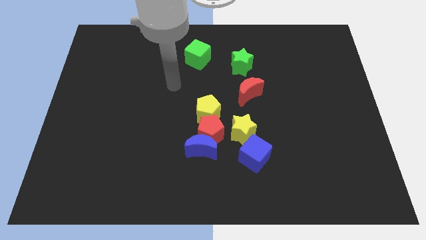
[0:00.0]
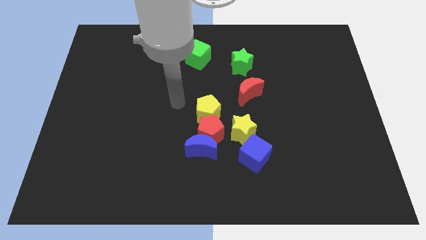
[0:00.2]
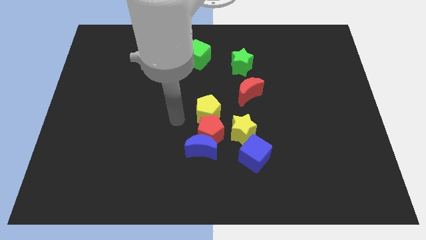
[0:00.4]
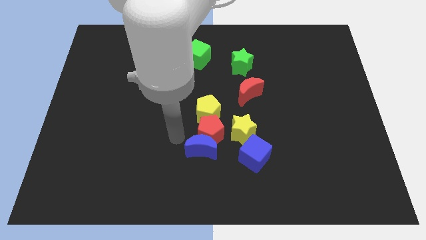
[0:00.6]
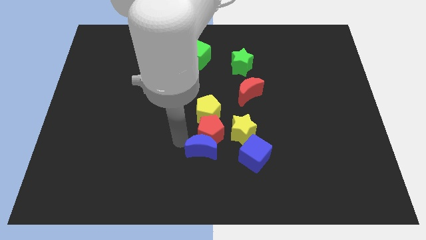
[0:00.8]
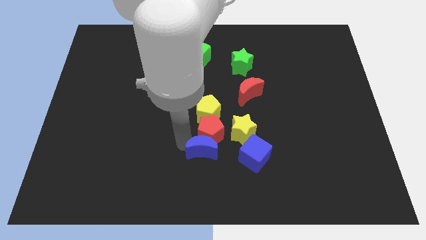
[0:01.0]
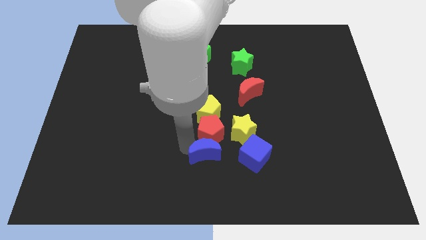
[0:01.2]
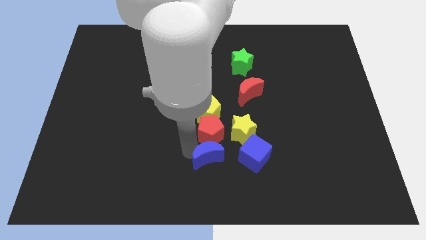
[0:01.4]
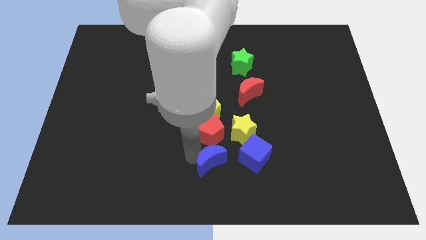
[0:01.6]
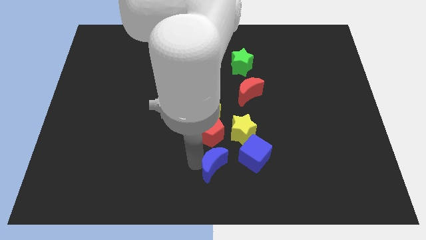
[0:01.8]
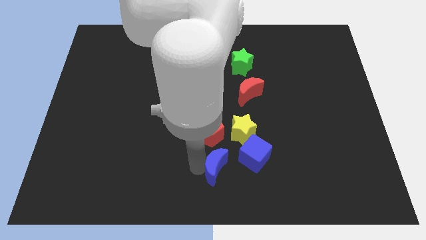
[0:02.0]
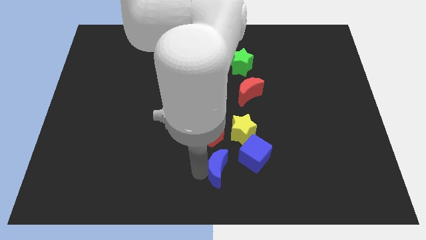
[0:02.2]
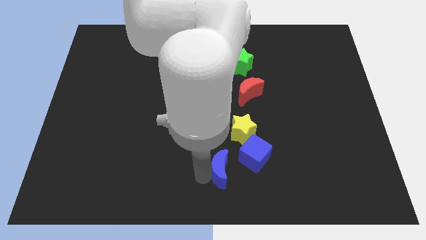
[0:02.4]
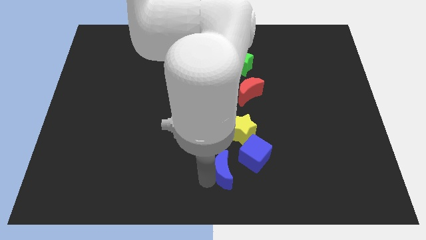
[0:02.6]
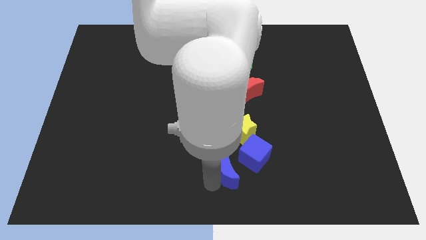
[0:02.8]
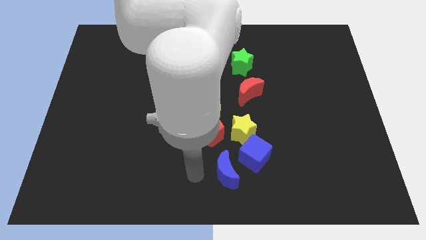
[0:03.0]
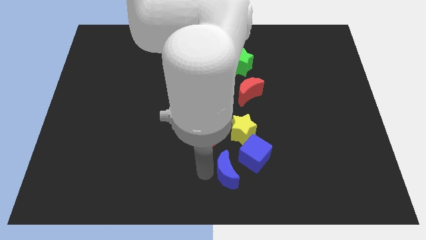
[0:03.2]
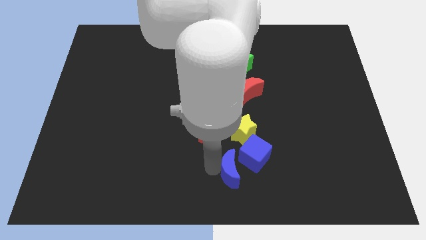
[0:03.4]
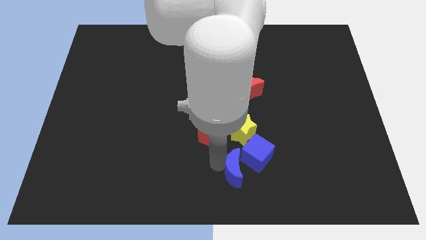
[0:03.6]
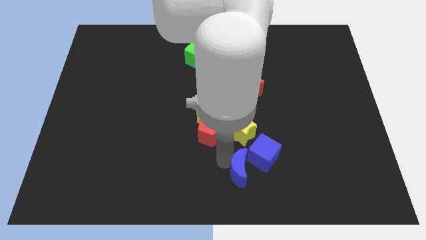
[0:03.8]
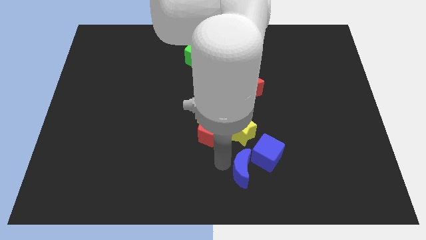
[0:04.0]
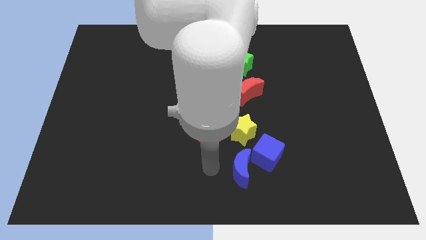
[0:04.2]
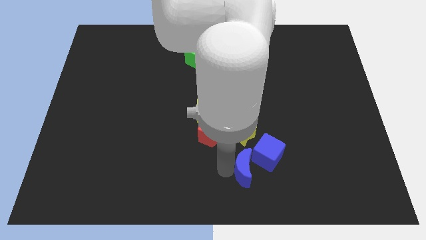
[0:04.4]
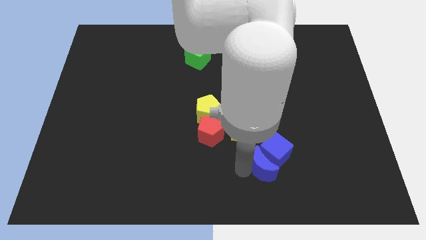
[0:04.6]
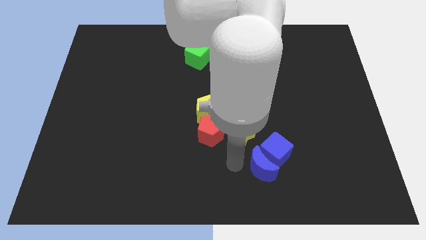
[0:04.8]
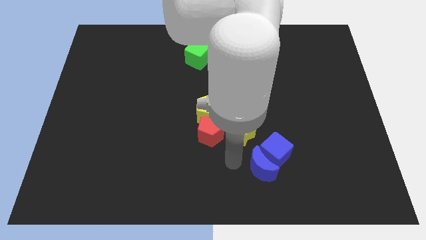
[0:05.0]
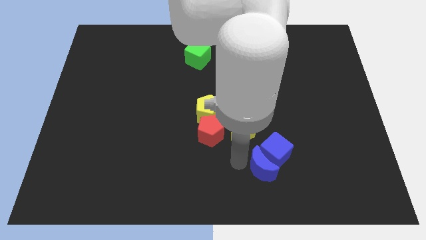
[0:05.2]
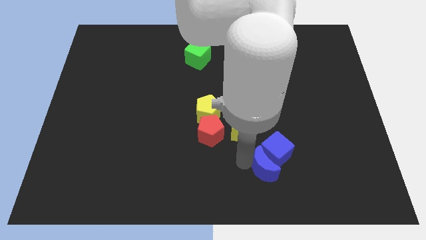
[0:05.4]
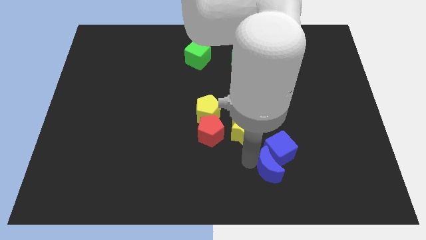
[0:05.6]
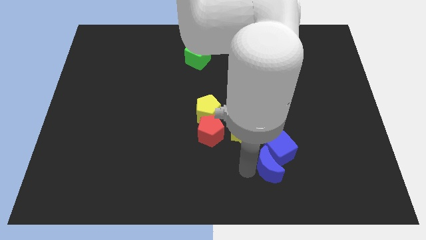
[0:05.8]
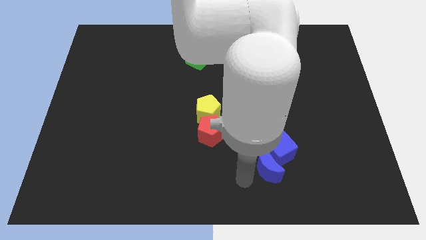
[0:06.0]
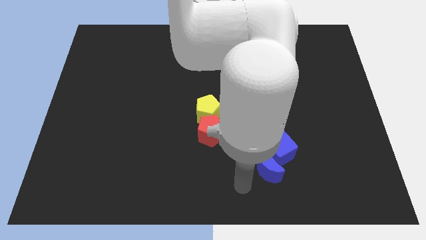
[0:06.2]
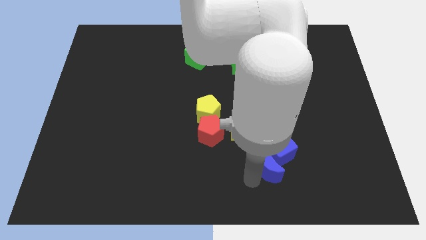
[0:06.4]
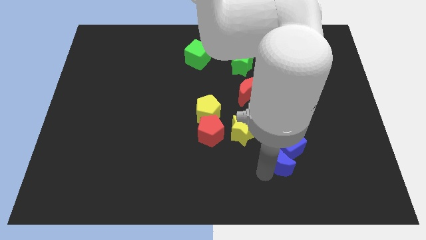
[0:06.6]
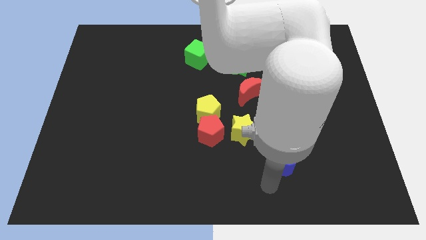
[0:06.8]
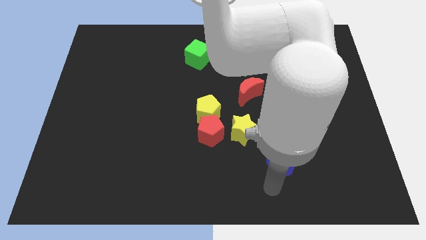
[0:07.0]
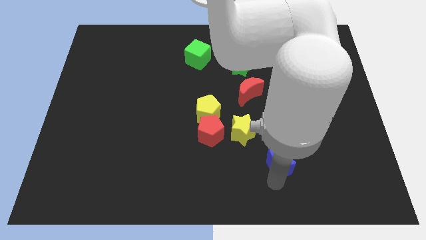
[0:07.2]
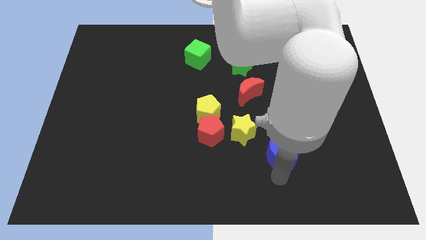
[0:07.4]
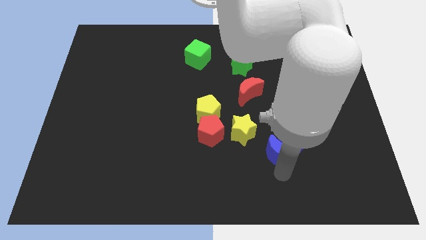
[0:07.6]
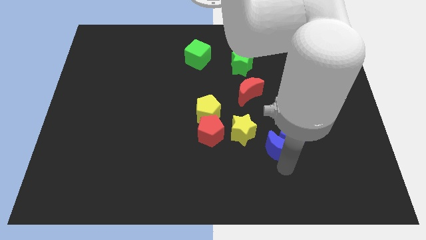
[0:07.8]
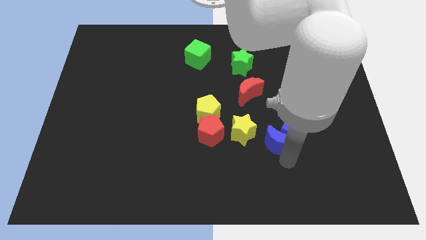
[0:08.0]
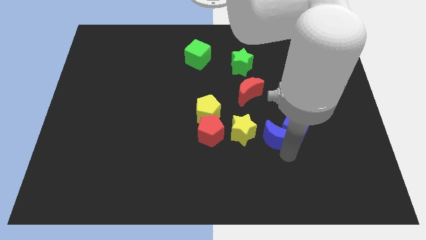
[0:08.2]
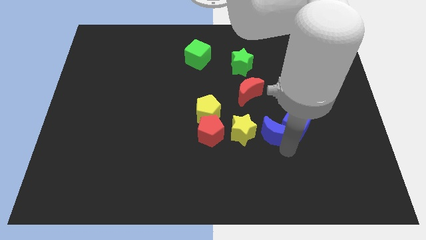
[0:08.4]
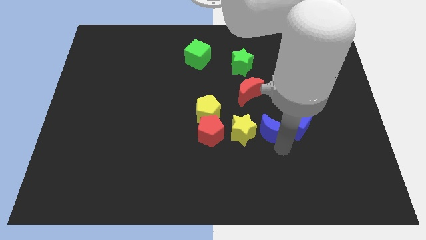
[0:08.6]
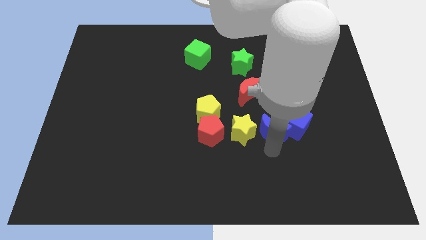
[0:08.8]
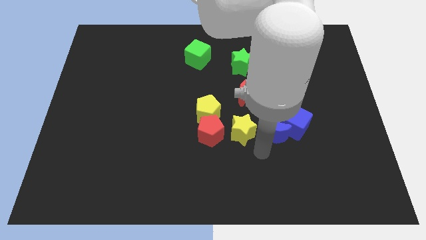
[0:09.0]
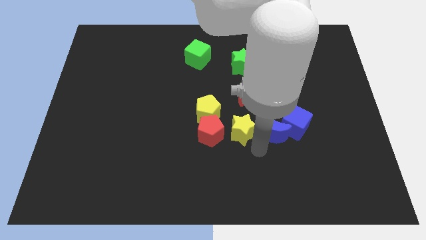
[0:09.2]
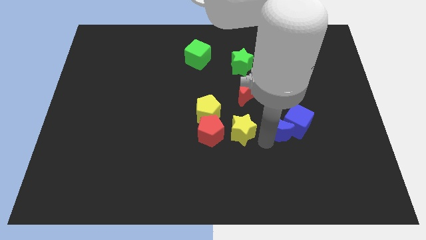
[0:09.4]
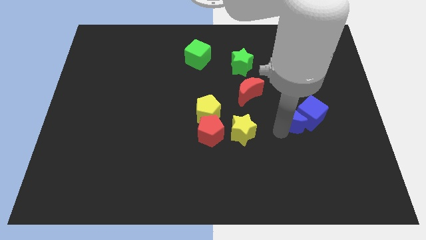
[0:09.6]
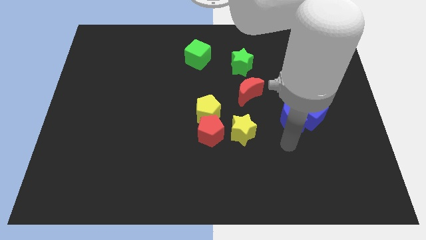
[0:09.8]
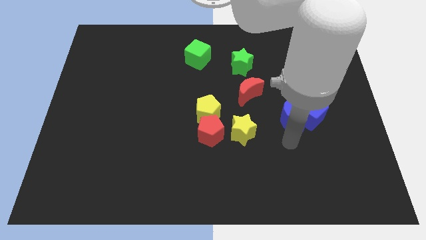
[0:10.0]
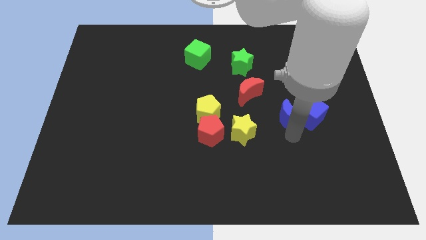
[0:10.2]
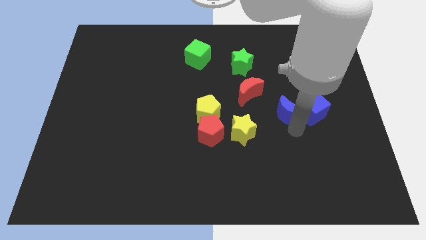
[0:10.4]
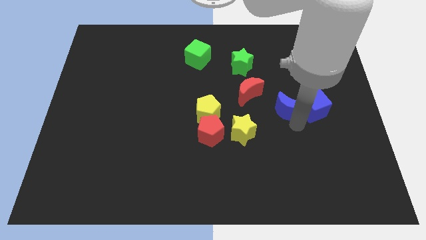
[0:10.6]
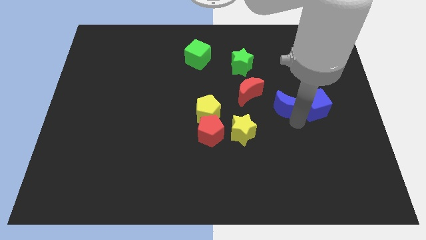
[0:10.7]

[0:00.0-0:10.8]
slide the blue moon to the right of the red moon

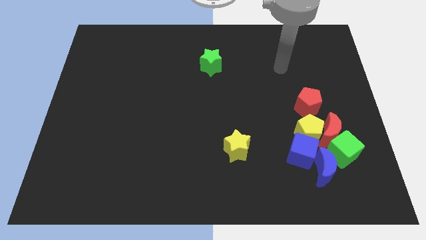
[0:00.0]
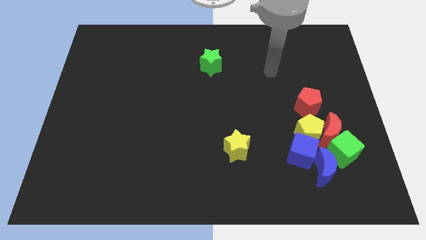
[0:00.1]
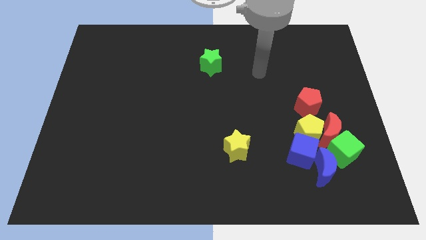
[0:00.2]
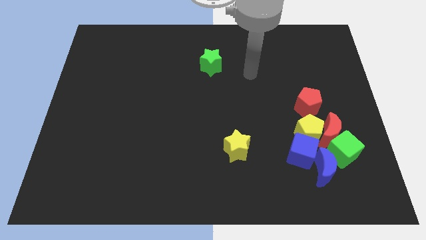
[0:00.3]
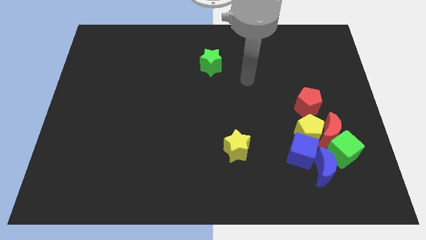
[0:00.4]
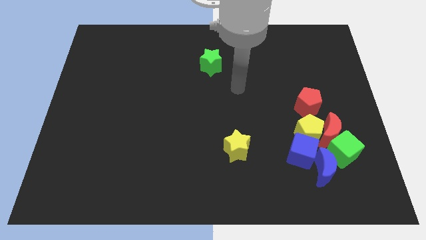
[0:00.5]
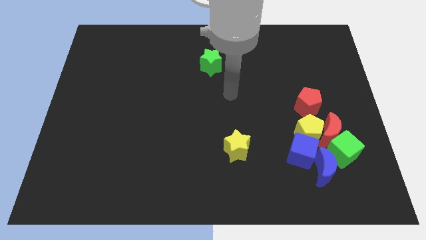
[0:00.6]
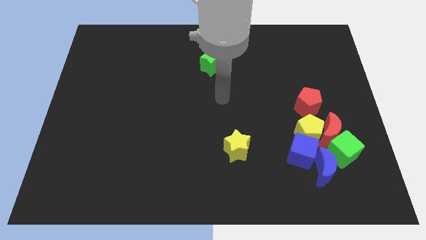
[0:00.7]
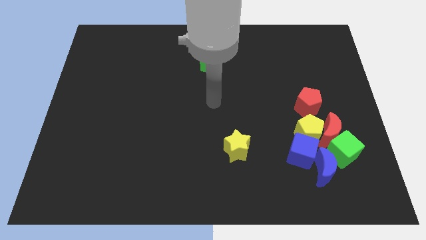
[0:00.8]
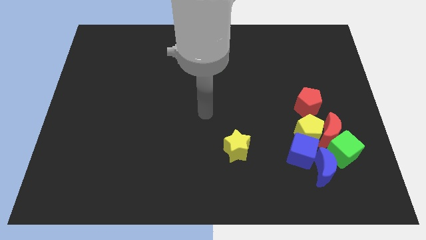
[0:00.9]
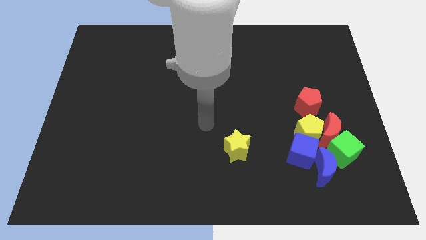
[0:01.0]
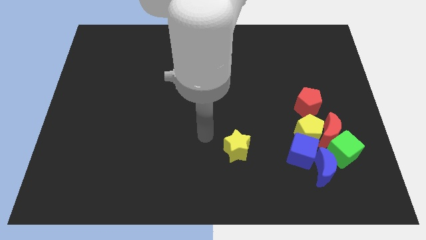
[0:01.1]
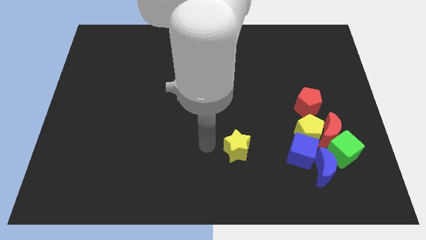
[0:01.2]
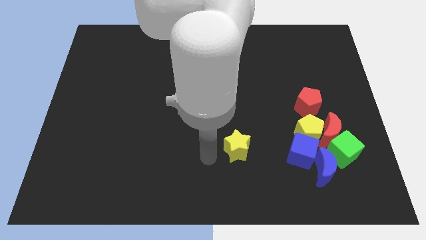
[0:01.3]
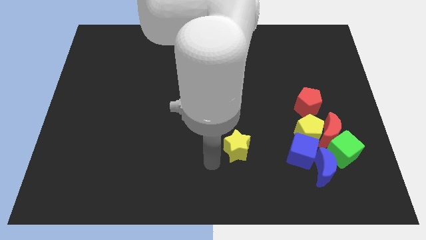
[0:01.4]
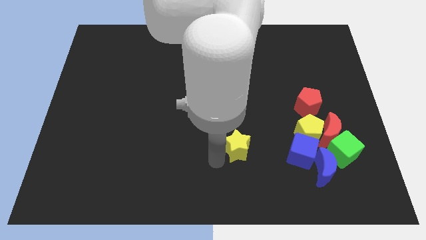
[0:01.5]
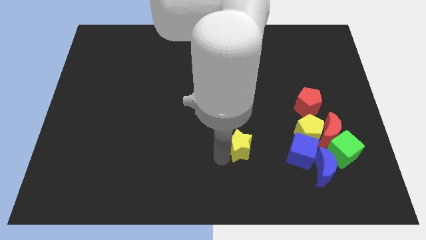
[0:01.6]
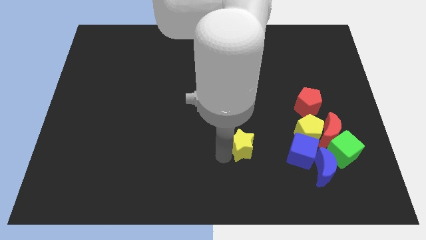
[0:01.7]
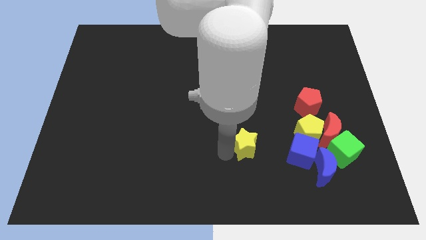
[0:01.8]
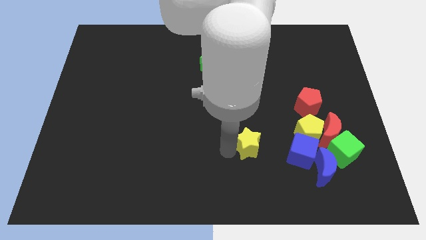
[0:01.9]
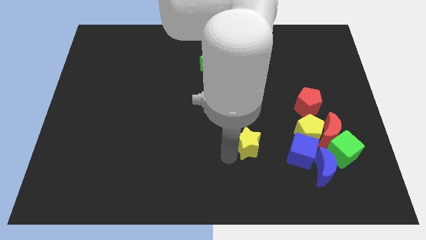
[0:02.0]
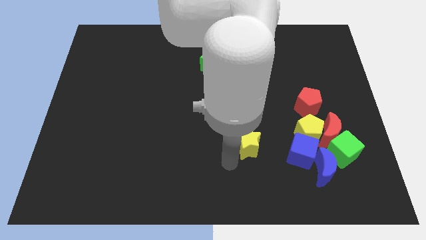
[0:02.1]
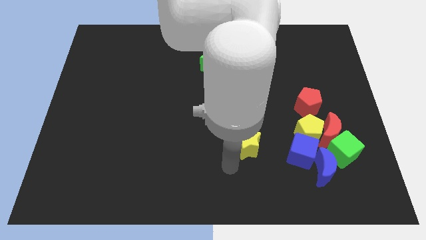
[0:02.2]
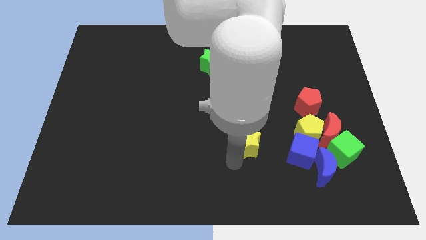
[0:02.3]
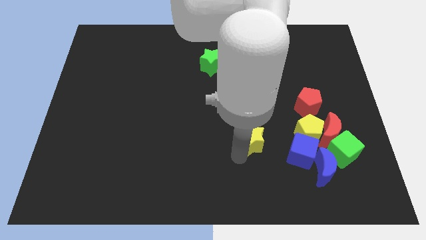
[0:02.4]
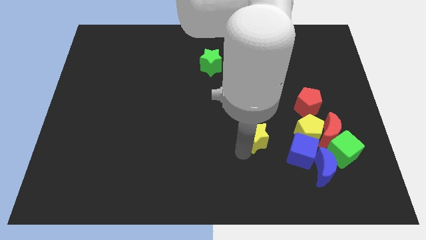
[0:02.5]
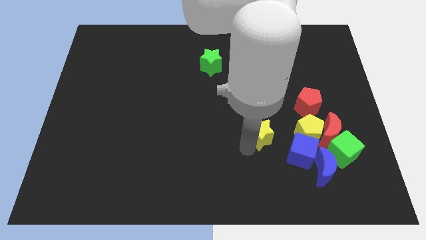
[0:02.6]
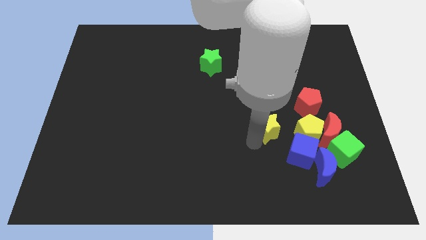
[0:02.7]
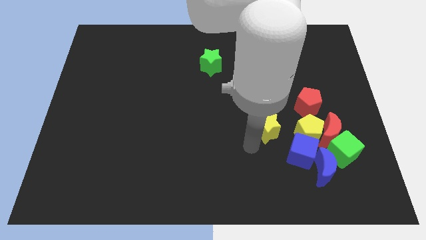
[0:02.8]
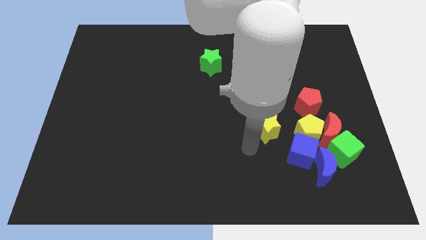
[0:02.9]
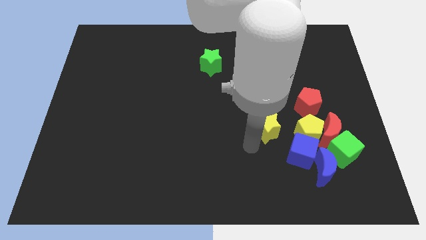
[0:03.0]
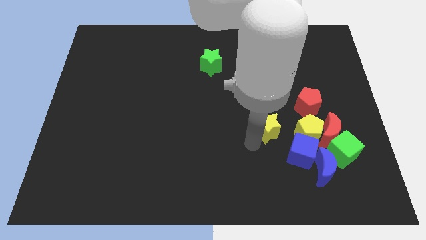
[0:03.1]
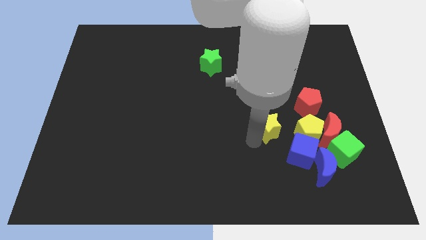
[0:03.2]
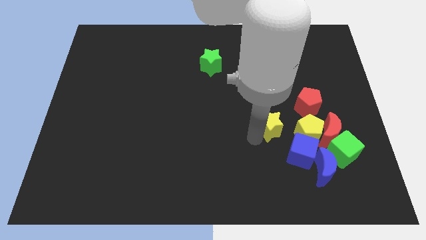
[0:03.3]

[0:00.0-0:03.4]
put the yellow star diagonally up and to the left of the yellow pentagon
